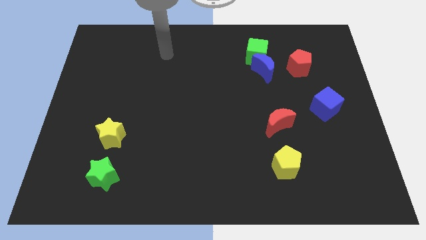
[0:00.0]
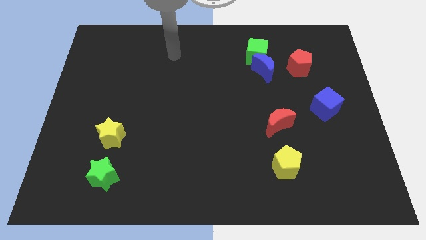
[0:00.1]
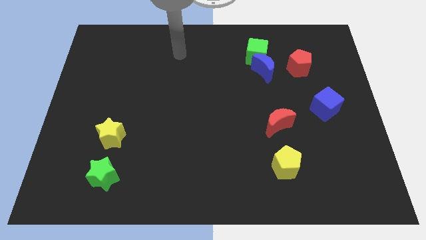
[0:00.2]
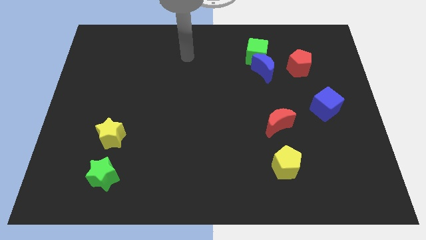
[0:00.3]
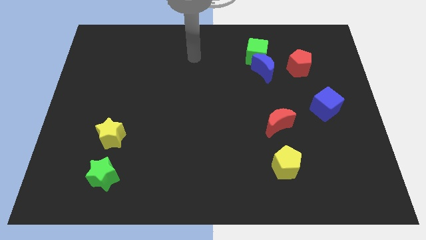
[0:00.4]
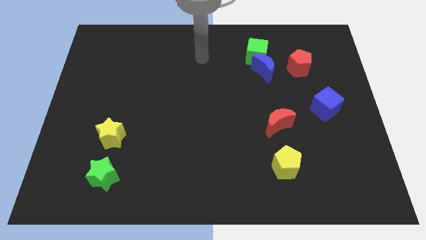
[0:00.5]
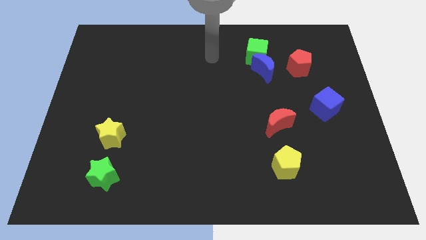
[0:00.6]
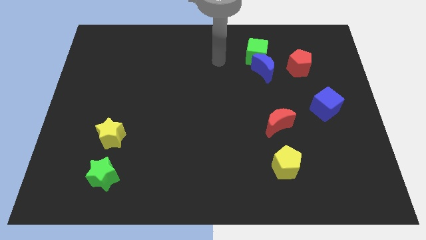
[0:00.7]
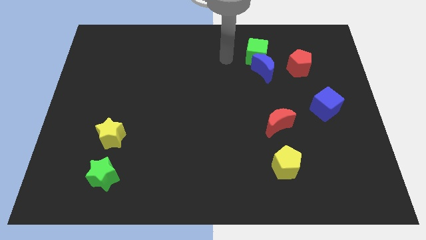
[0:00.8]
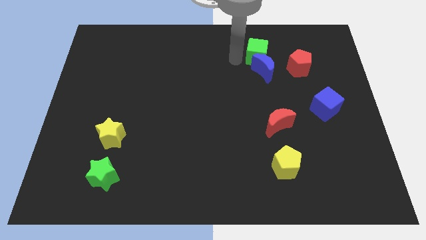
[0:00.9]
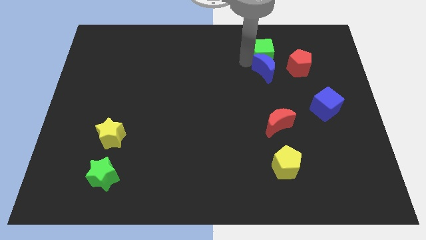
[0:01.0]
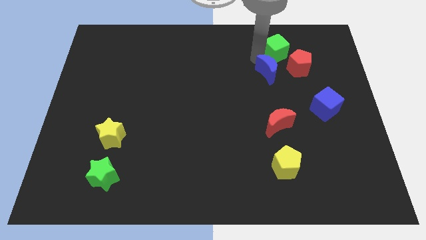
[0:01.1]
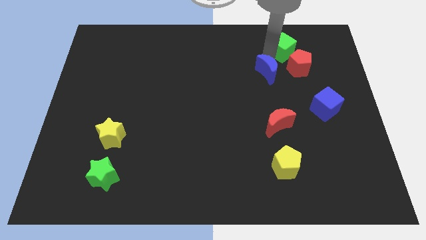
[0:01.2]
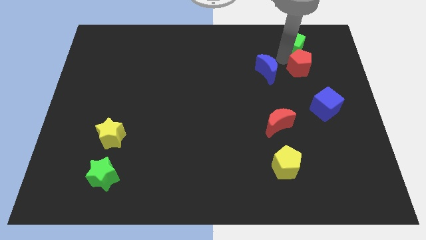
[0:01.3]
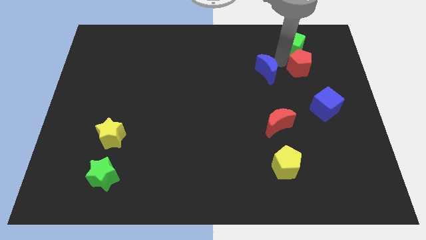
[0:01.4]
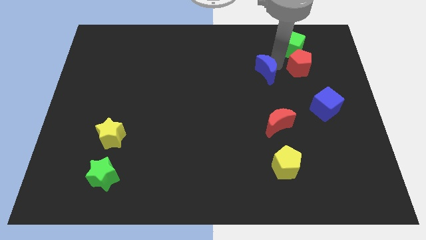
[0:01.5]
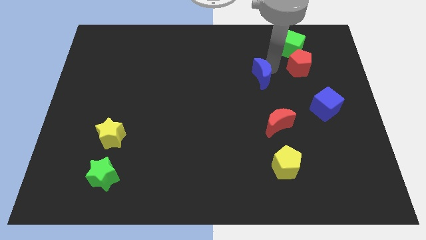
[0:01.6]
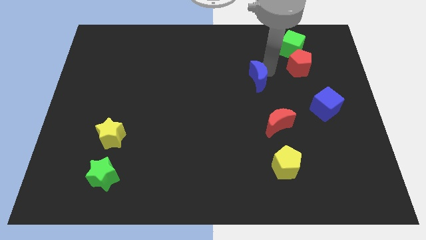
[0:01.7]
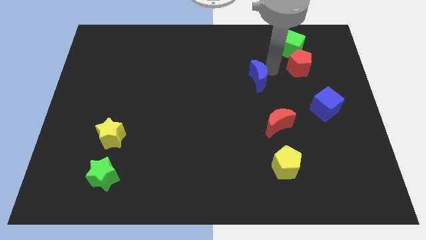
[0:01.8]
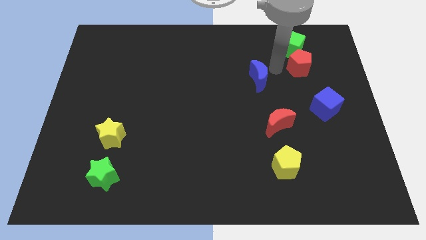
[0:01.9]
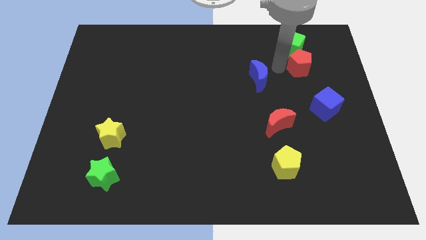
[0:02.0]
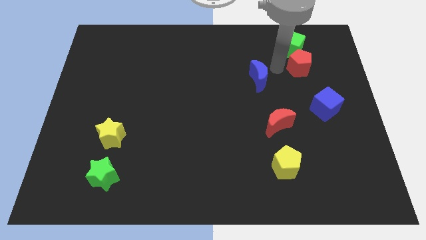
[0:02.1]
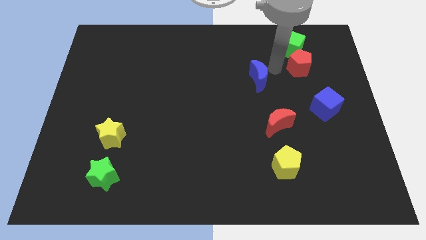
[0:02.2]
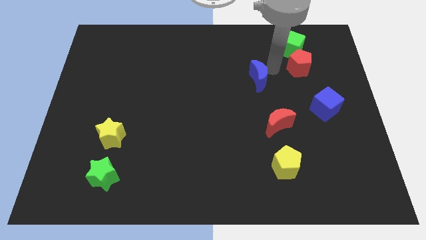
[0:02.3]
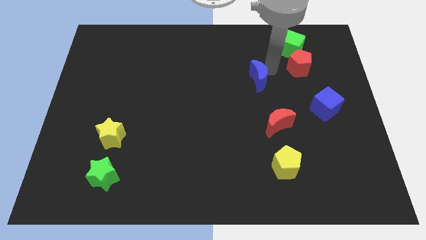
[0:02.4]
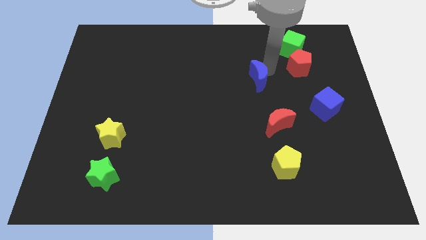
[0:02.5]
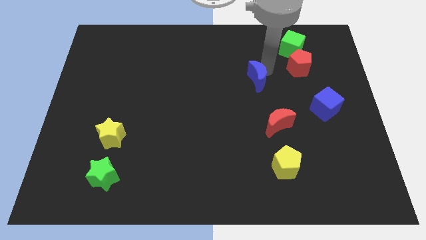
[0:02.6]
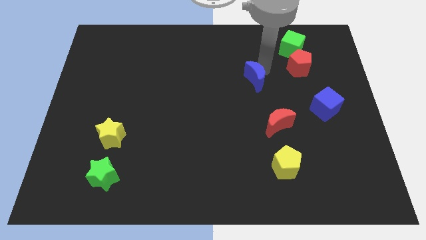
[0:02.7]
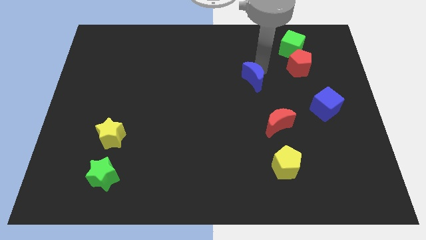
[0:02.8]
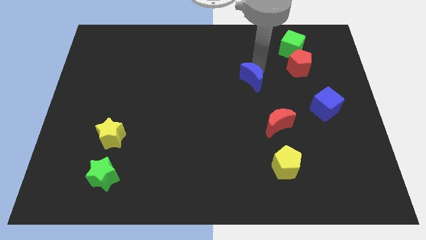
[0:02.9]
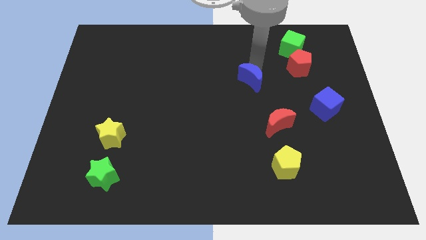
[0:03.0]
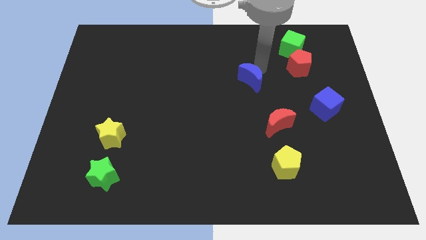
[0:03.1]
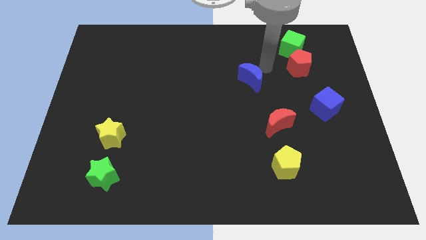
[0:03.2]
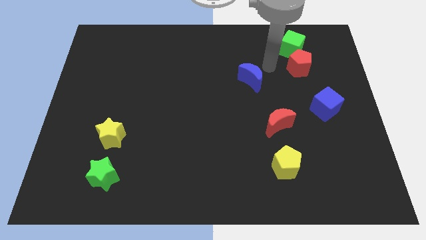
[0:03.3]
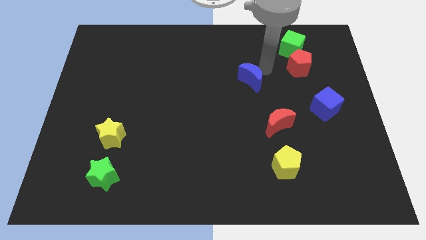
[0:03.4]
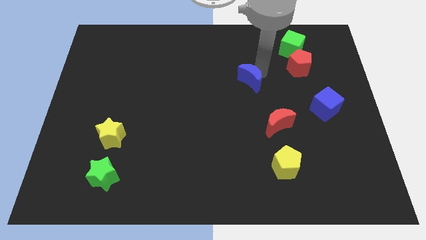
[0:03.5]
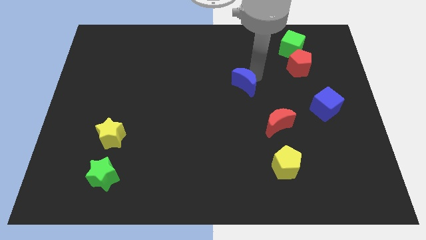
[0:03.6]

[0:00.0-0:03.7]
push the blue moon down and to the left somewhat

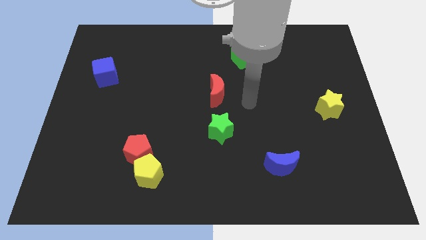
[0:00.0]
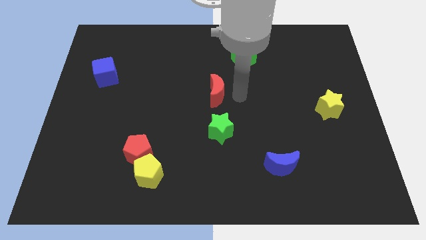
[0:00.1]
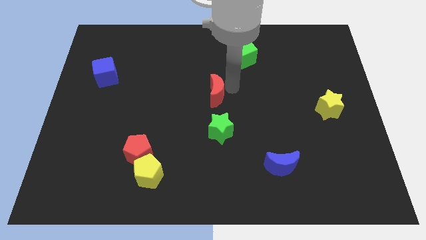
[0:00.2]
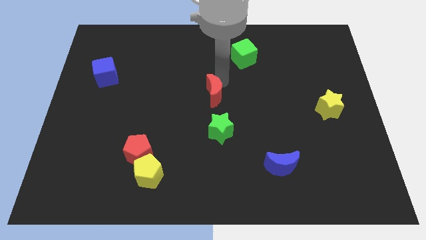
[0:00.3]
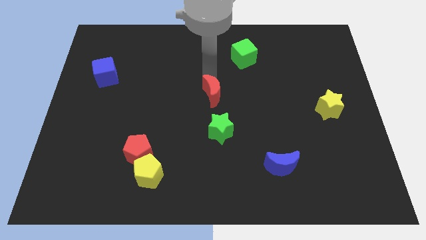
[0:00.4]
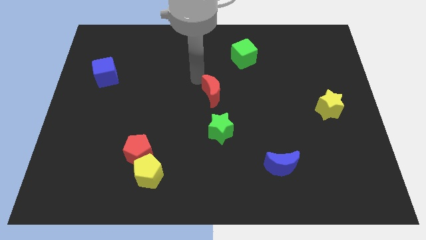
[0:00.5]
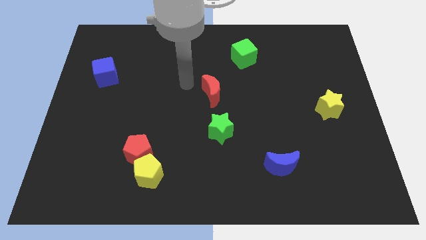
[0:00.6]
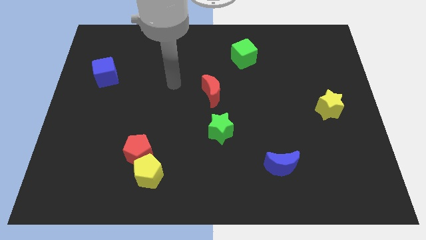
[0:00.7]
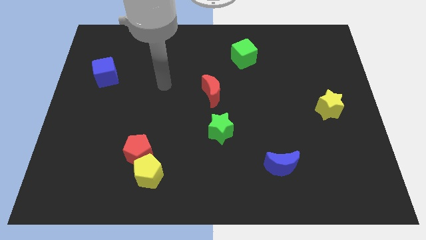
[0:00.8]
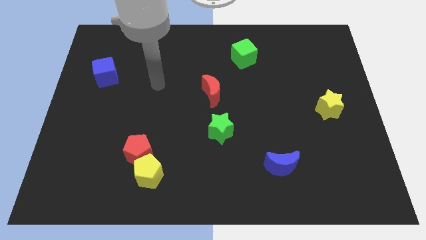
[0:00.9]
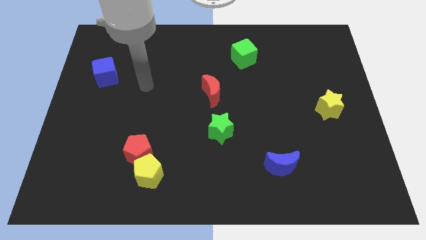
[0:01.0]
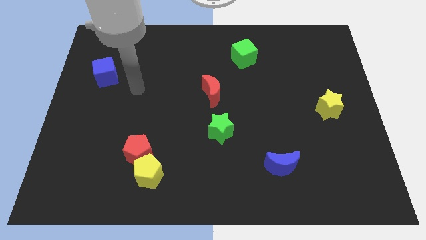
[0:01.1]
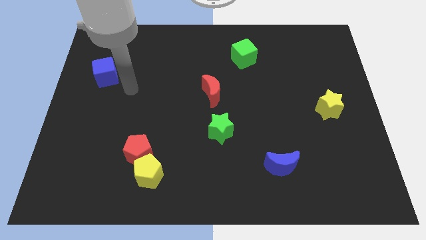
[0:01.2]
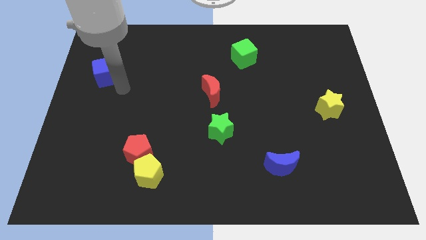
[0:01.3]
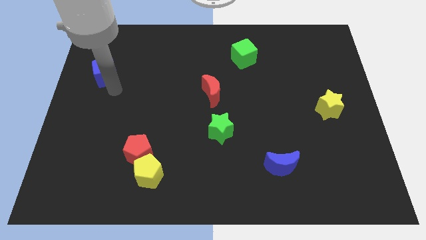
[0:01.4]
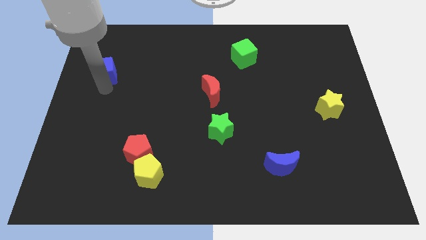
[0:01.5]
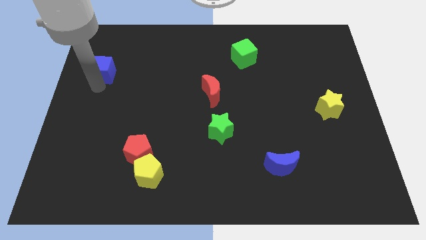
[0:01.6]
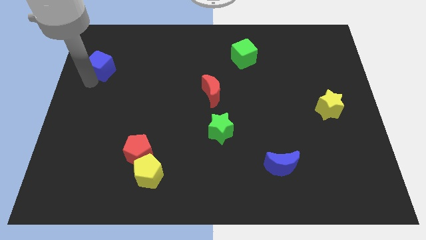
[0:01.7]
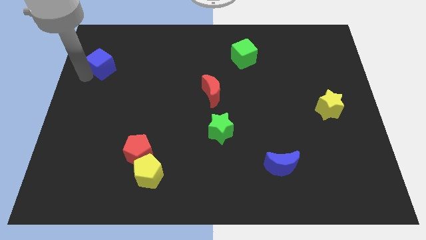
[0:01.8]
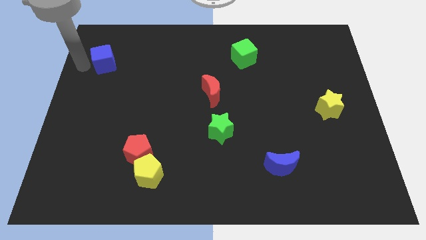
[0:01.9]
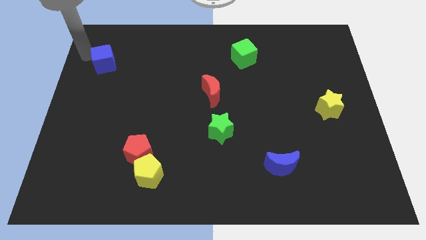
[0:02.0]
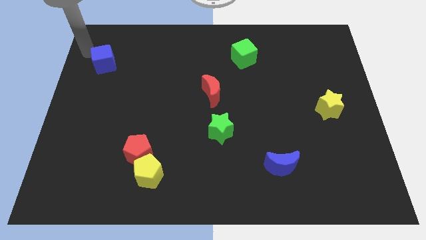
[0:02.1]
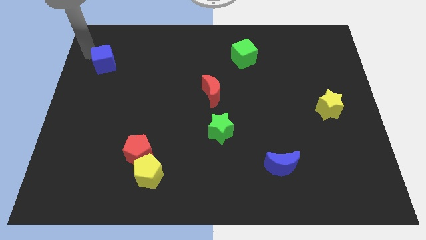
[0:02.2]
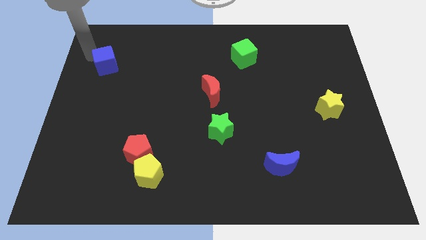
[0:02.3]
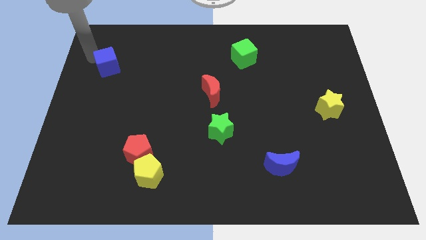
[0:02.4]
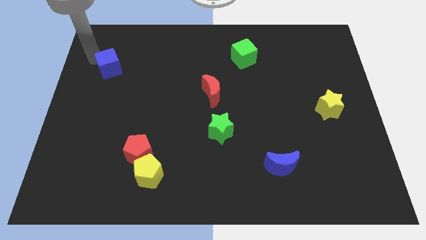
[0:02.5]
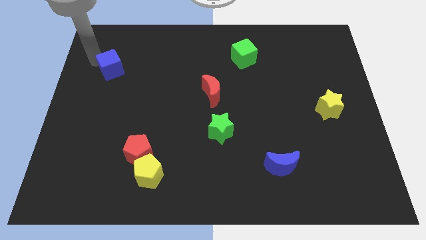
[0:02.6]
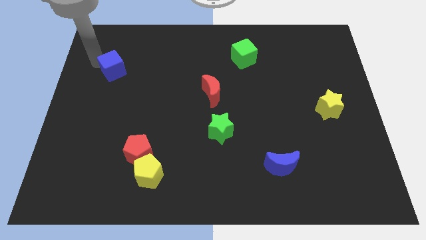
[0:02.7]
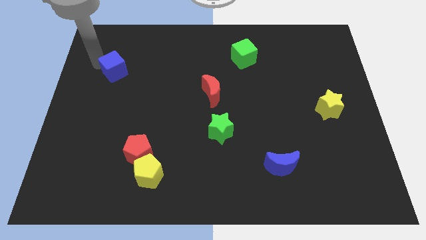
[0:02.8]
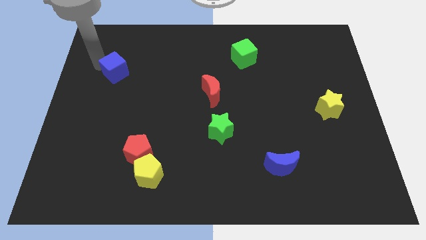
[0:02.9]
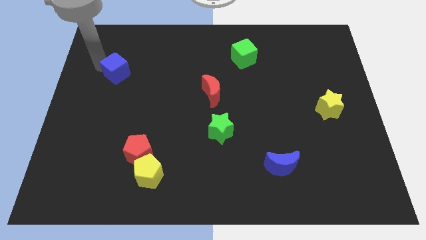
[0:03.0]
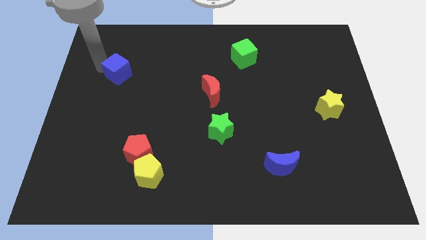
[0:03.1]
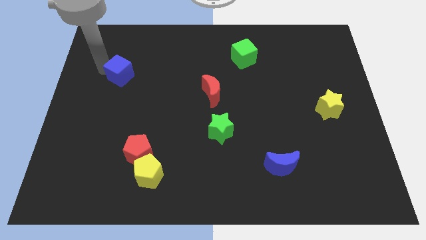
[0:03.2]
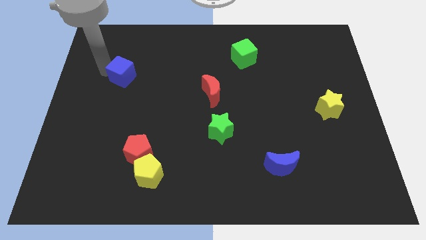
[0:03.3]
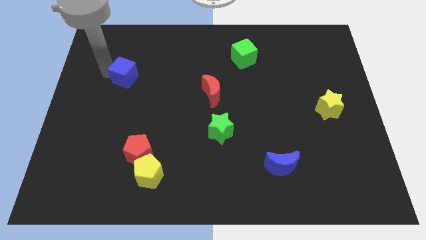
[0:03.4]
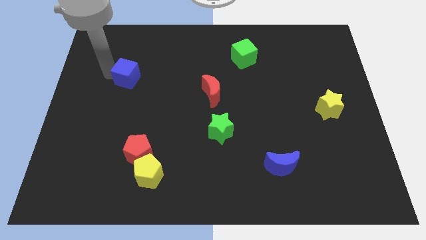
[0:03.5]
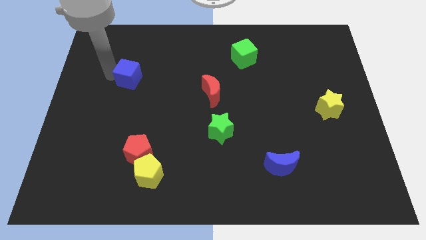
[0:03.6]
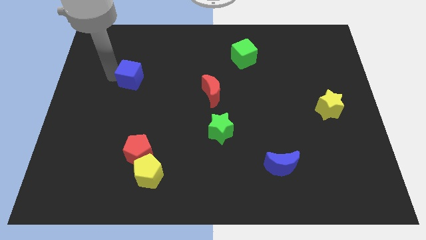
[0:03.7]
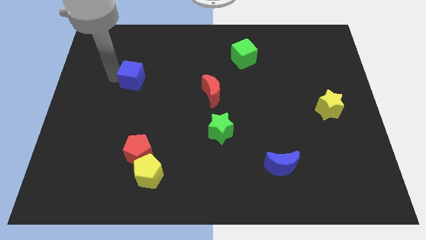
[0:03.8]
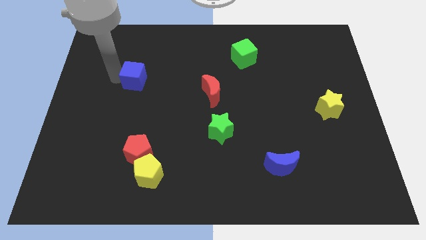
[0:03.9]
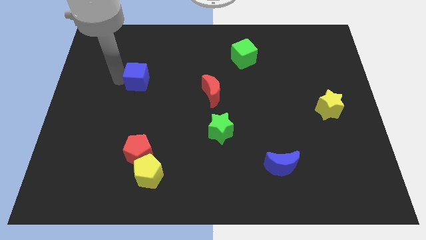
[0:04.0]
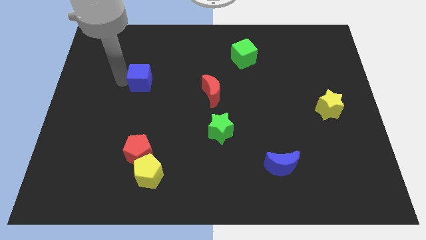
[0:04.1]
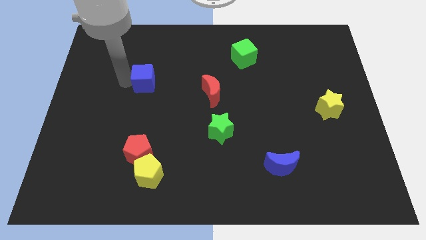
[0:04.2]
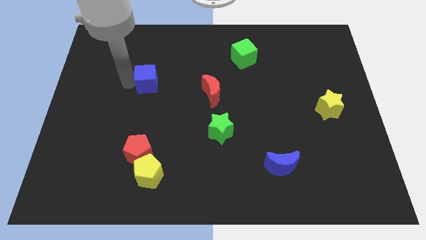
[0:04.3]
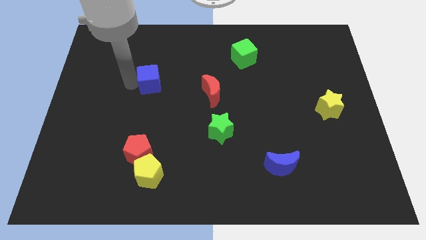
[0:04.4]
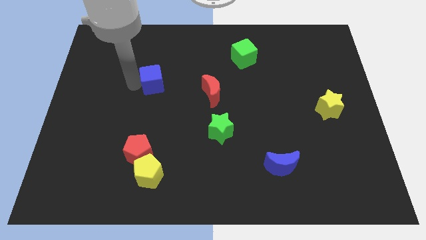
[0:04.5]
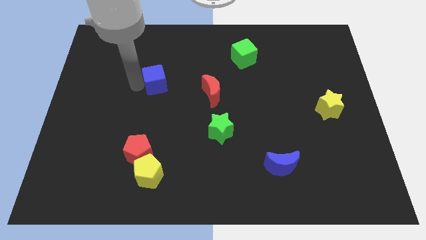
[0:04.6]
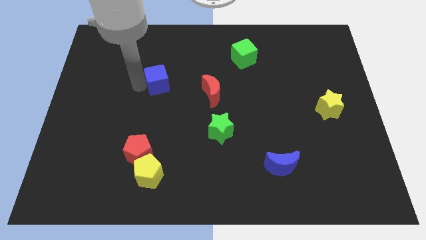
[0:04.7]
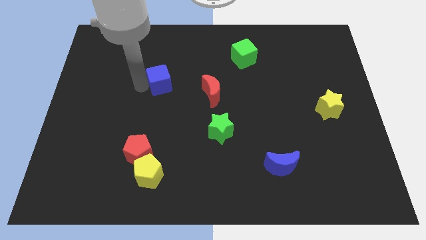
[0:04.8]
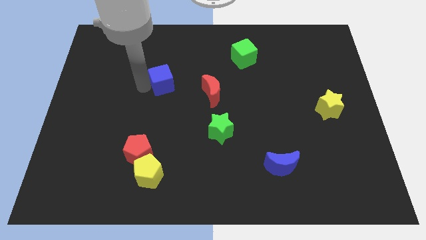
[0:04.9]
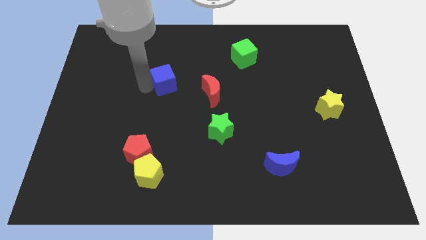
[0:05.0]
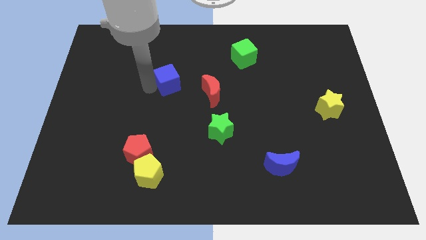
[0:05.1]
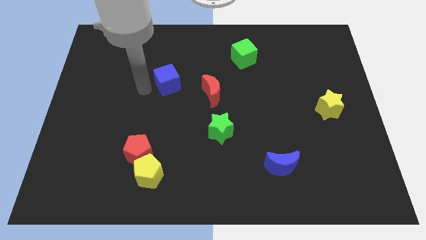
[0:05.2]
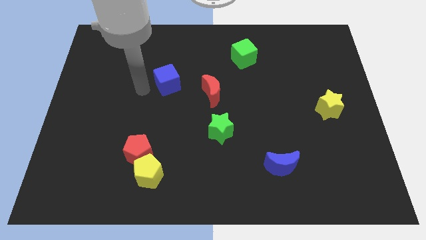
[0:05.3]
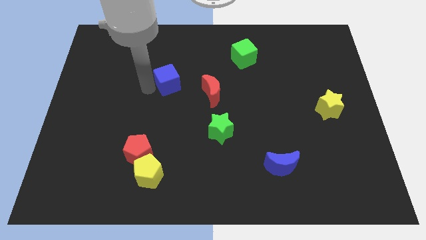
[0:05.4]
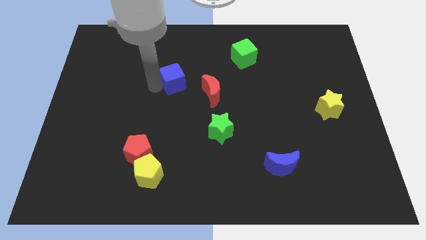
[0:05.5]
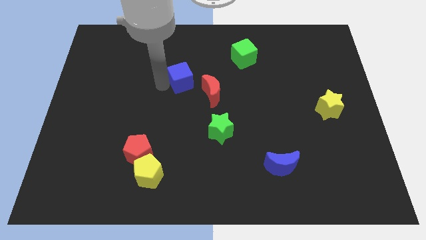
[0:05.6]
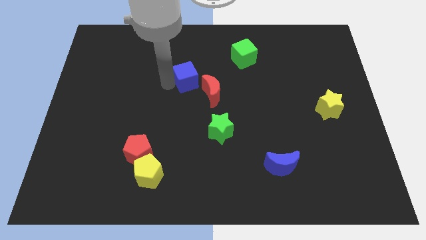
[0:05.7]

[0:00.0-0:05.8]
push the blue cube right
